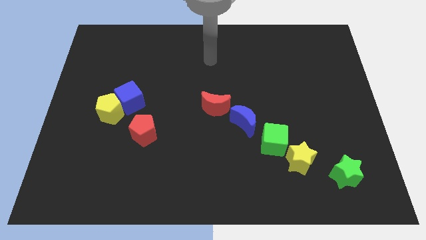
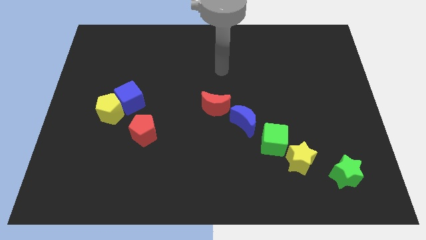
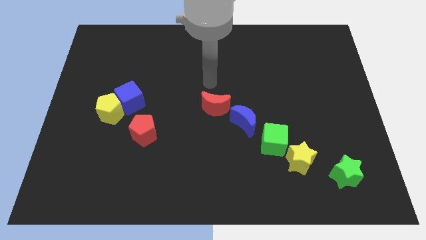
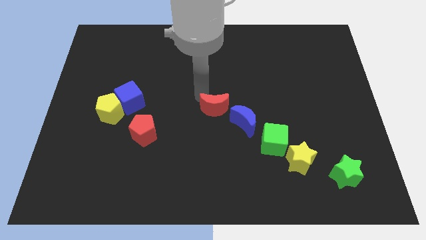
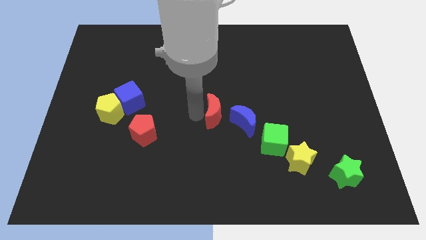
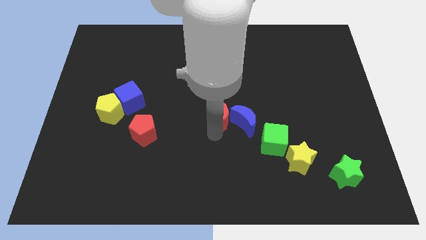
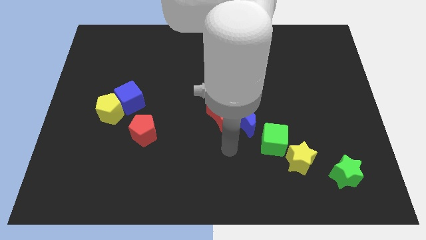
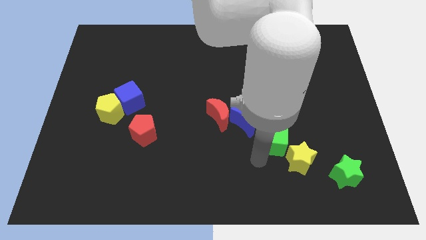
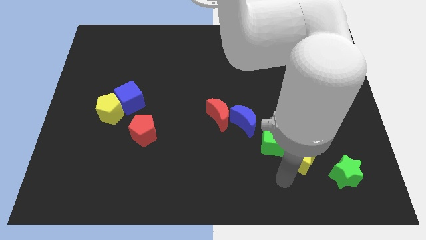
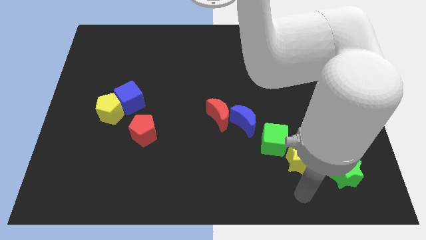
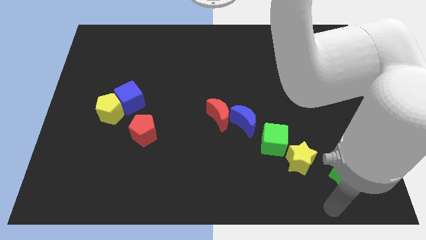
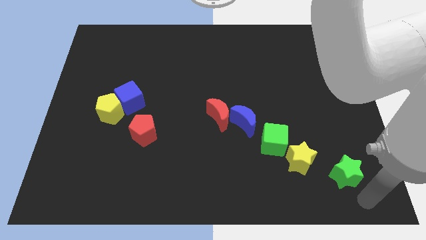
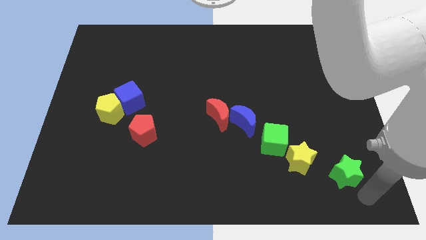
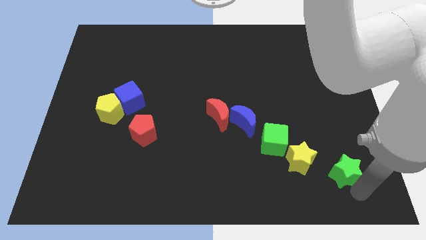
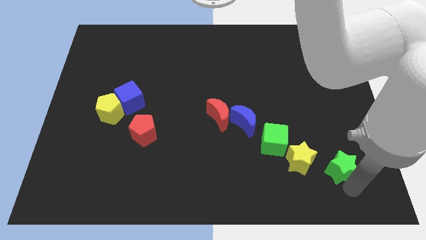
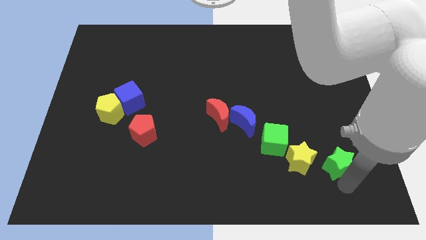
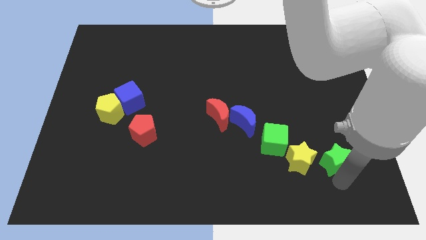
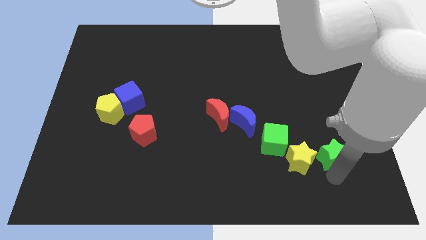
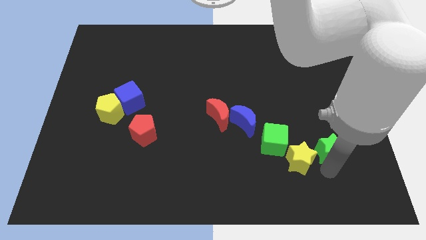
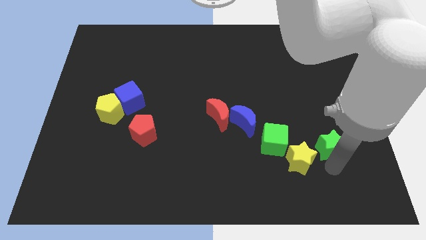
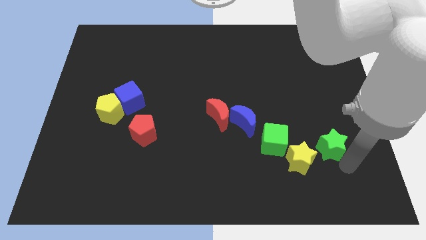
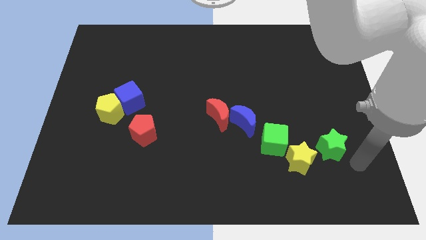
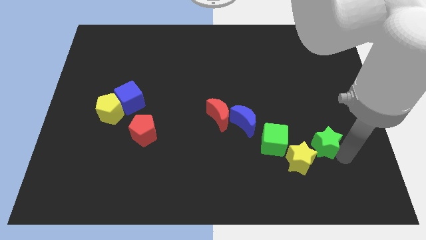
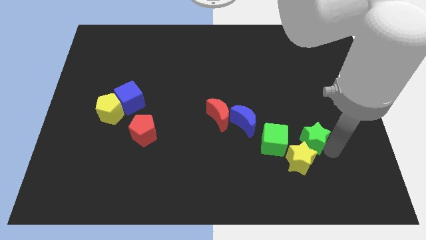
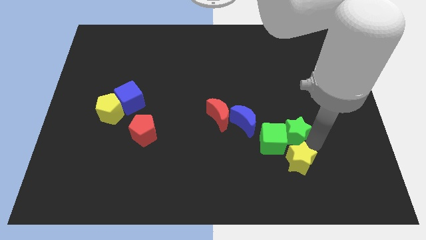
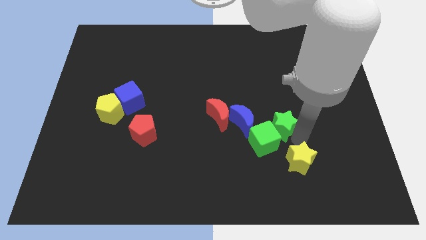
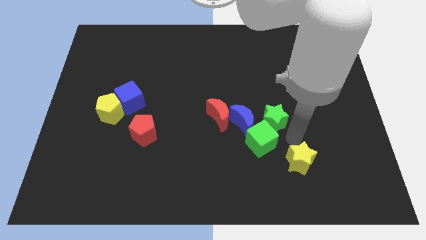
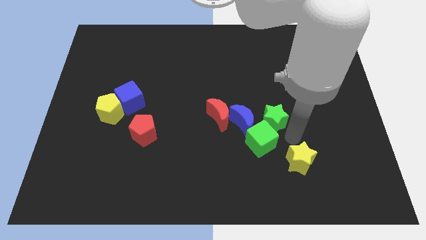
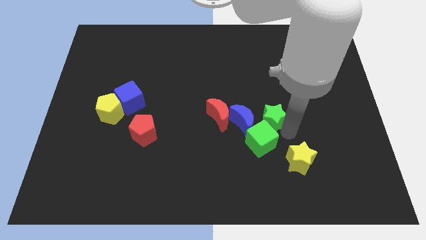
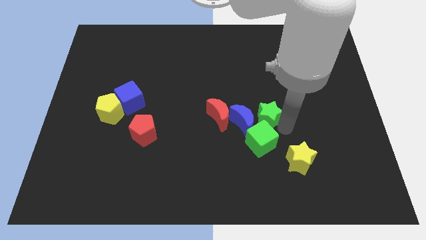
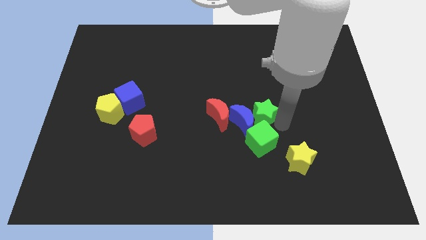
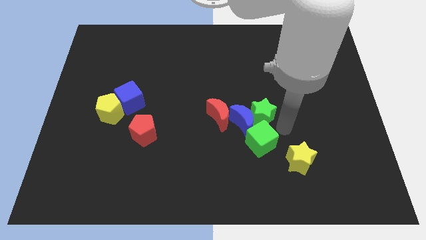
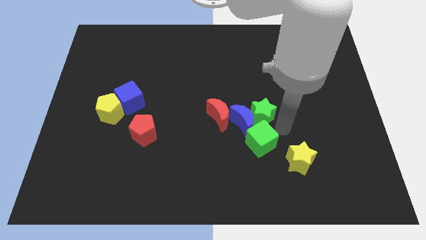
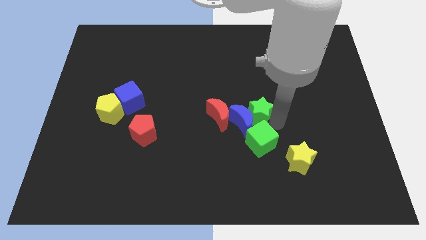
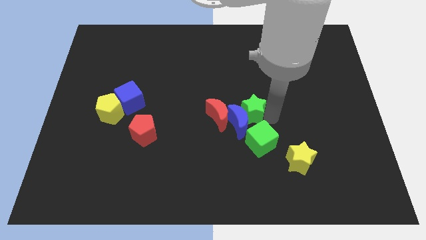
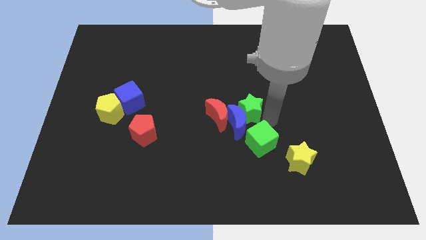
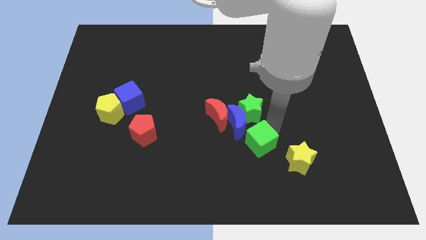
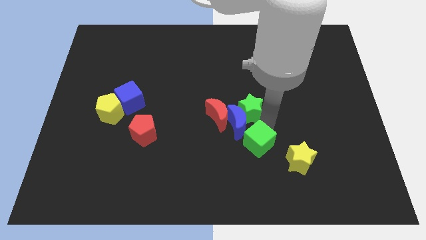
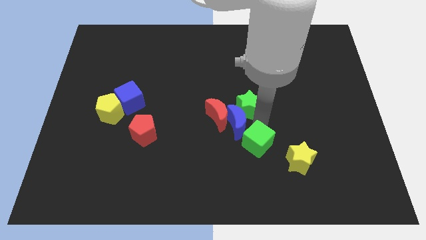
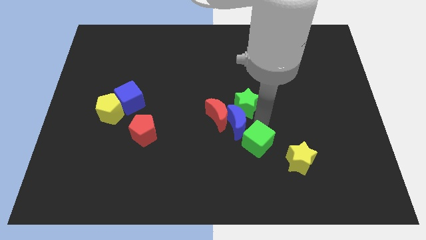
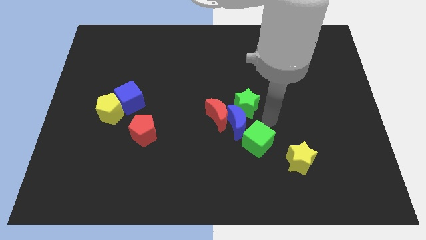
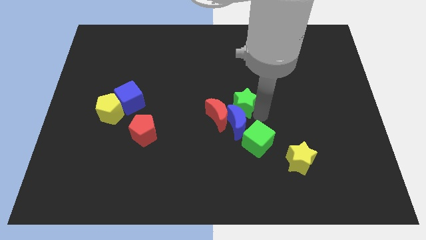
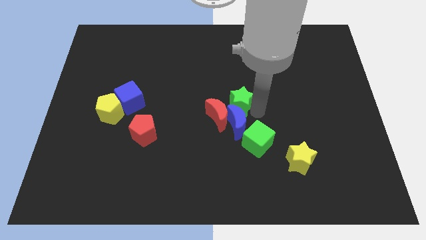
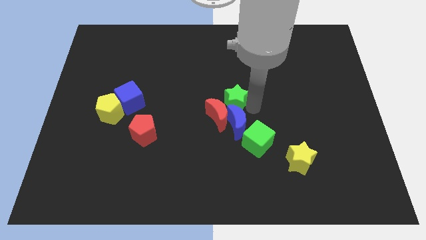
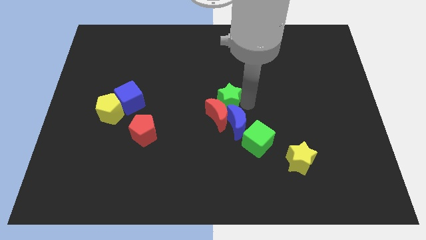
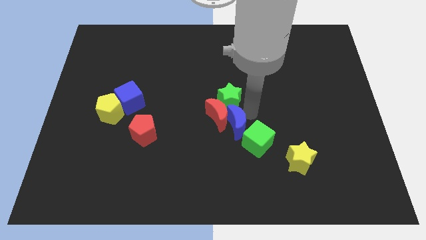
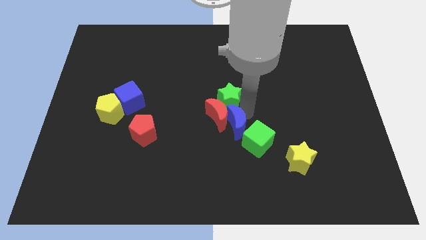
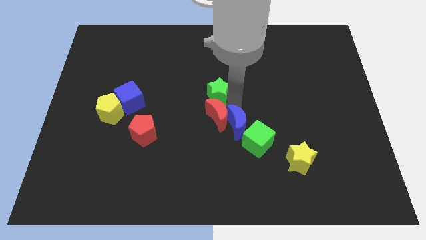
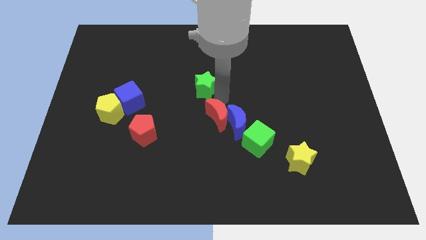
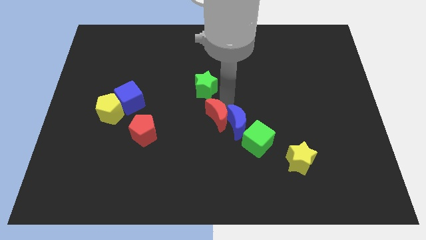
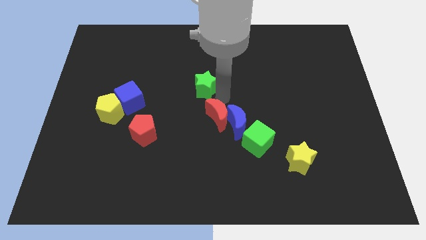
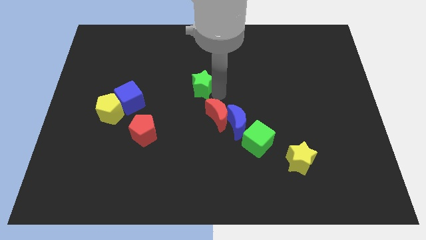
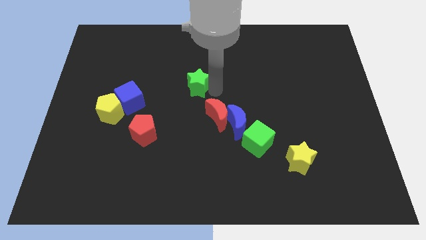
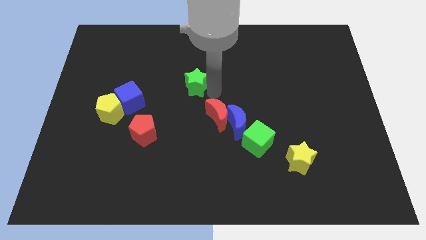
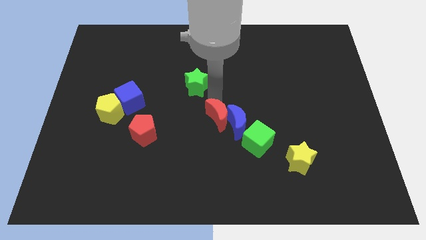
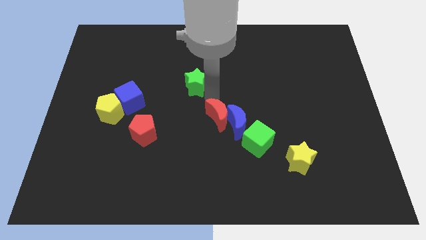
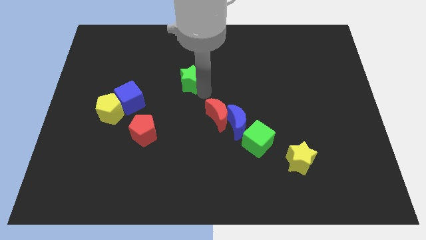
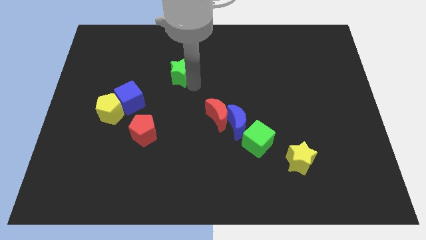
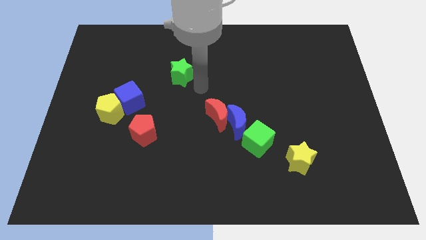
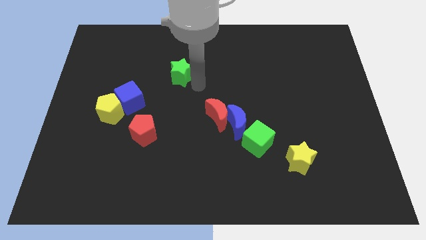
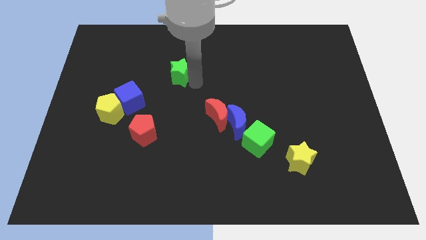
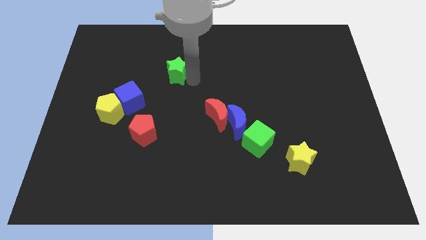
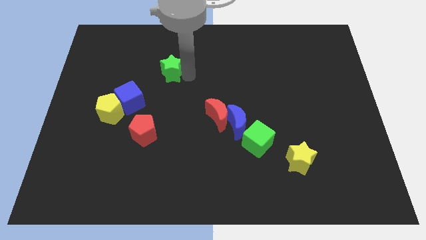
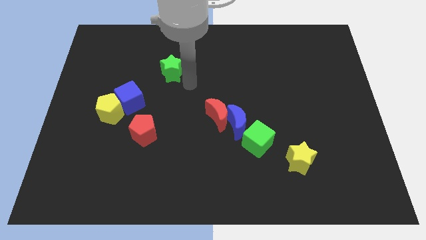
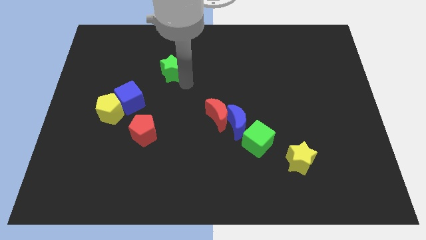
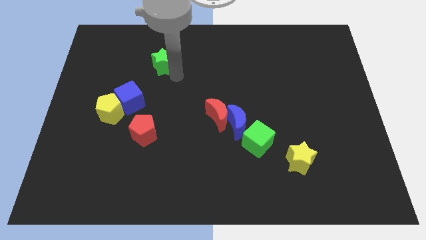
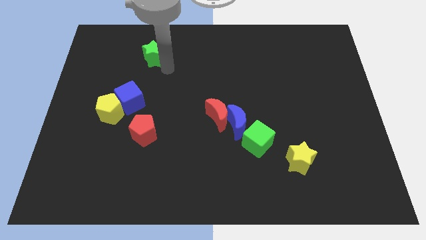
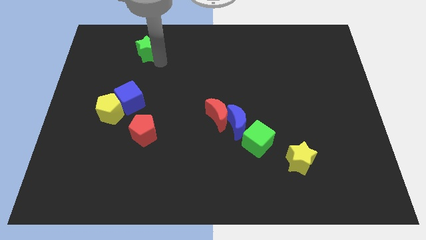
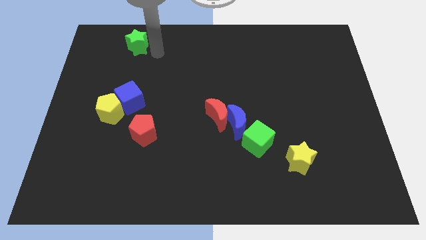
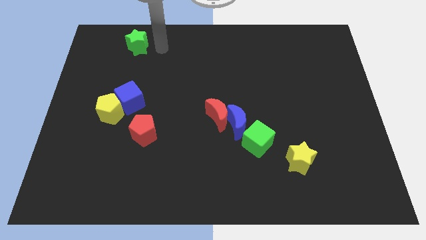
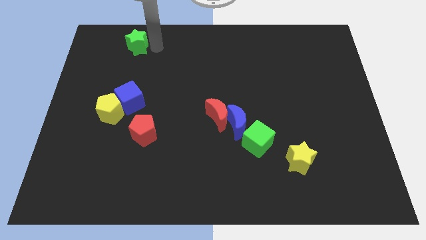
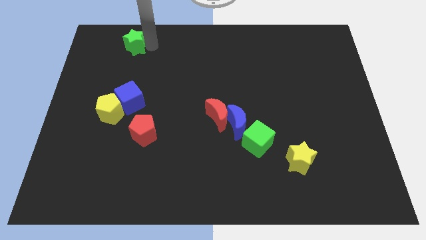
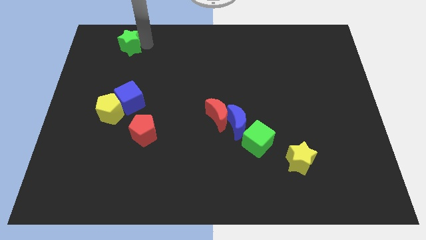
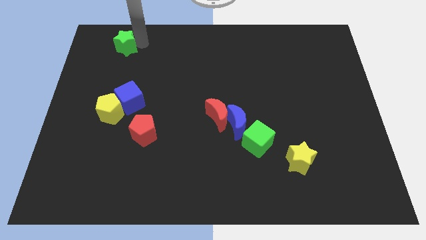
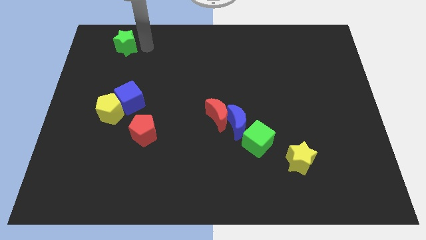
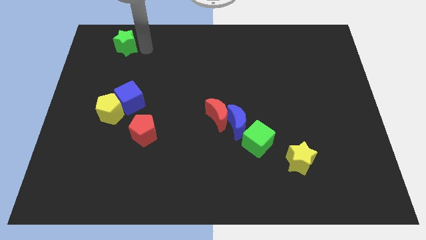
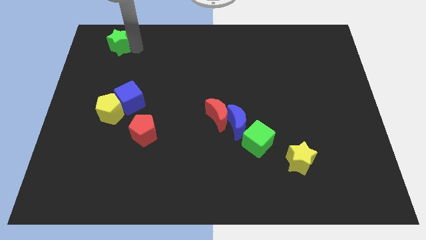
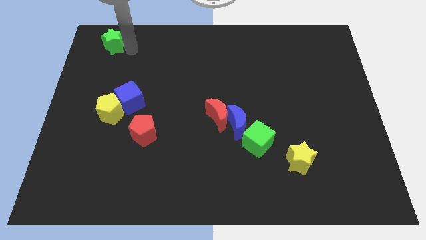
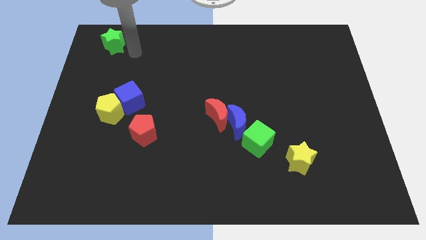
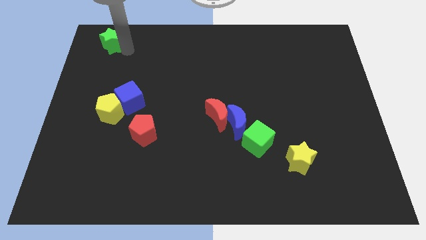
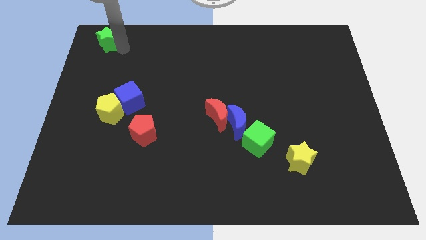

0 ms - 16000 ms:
move the green star to the upper left corner
